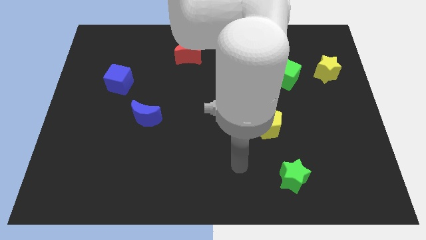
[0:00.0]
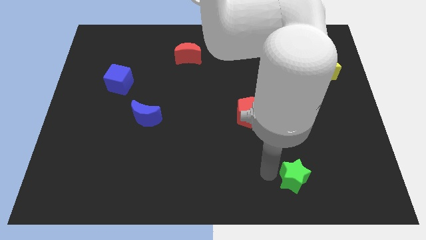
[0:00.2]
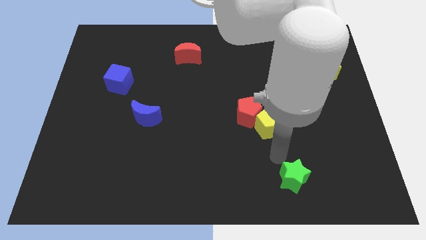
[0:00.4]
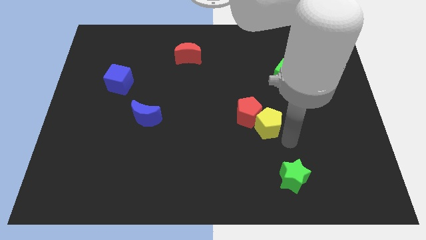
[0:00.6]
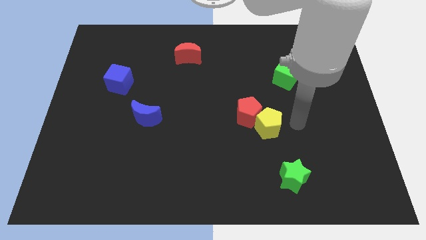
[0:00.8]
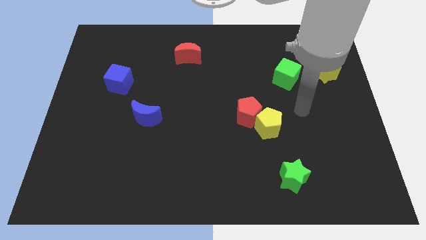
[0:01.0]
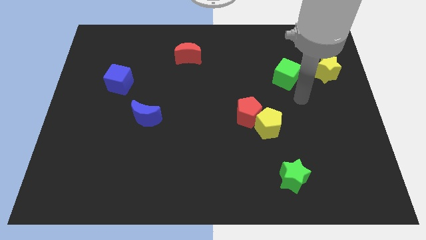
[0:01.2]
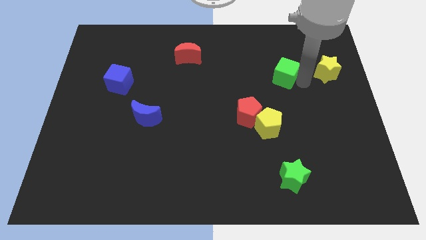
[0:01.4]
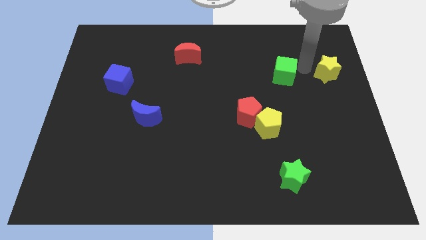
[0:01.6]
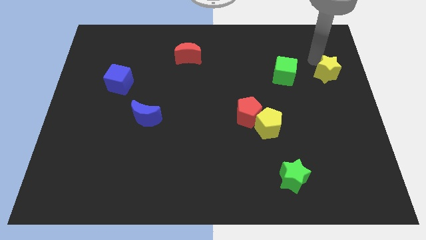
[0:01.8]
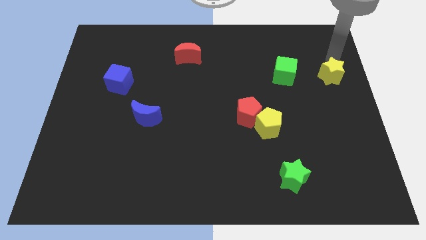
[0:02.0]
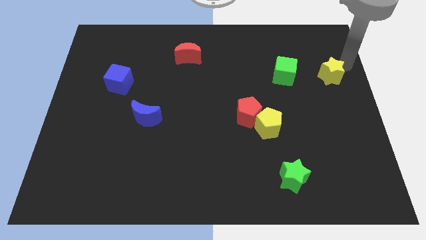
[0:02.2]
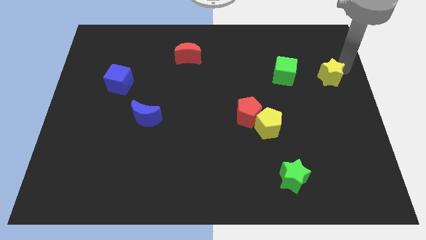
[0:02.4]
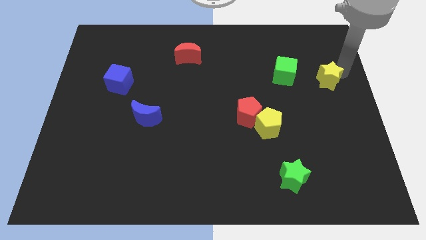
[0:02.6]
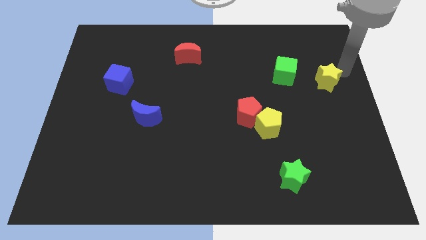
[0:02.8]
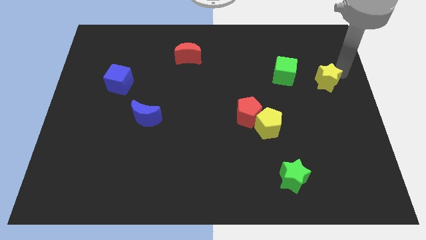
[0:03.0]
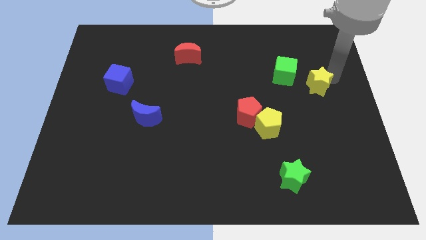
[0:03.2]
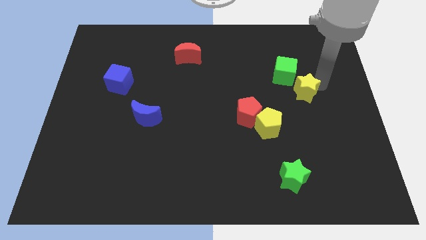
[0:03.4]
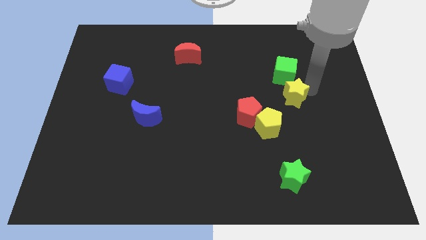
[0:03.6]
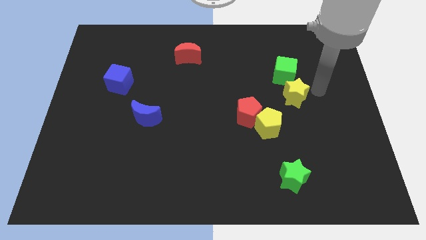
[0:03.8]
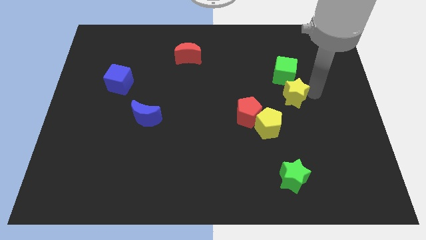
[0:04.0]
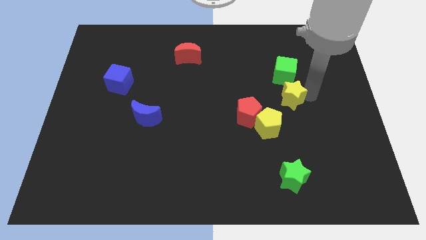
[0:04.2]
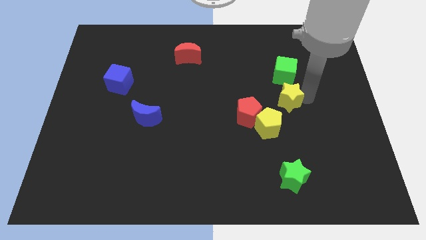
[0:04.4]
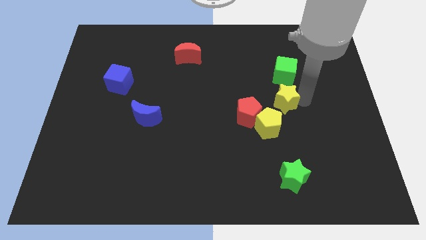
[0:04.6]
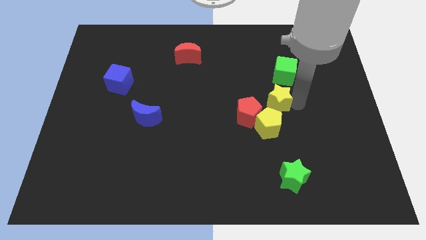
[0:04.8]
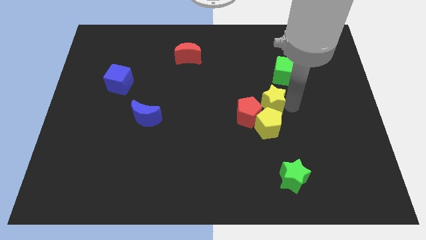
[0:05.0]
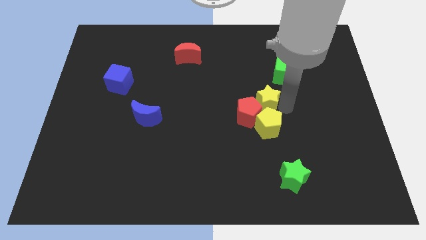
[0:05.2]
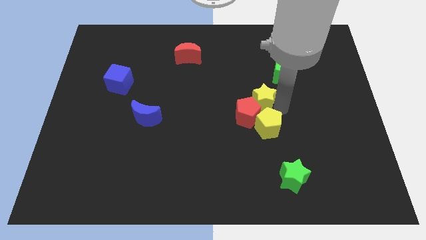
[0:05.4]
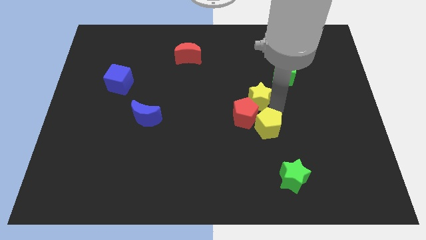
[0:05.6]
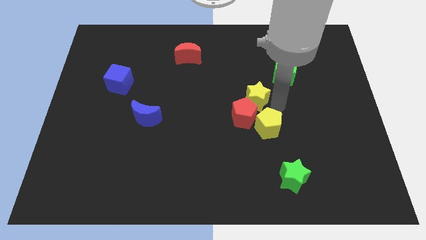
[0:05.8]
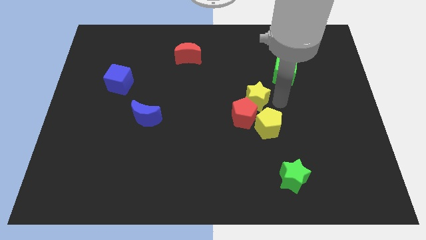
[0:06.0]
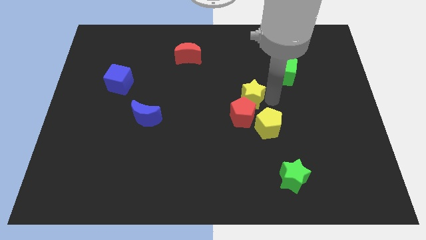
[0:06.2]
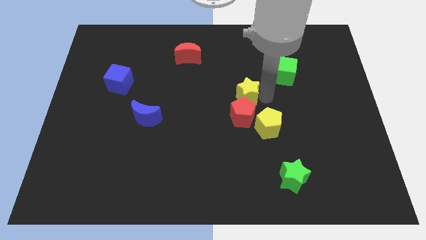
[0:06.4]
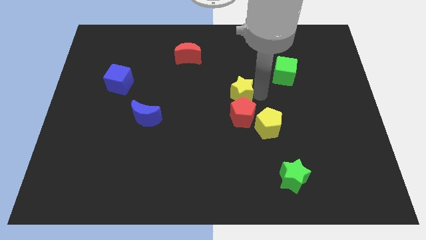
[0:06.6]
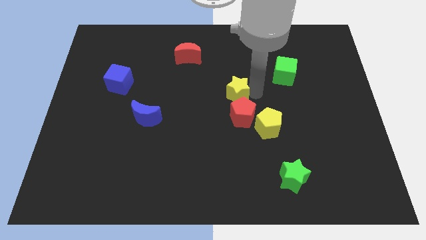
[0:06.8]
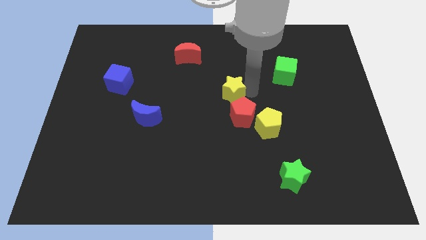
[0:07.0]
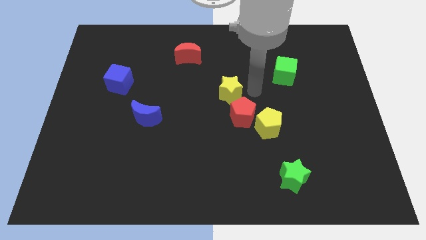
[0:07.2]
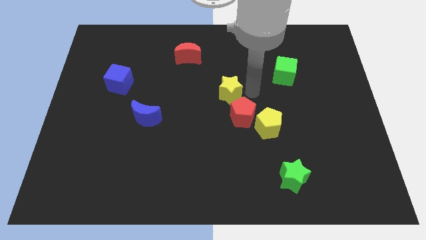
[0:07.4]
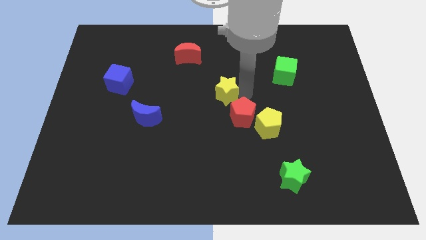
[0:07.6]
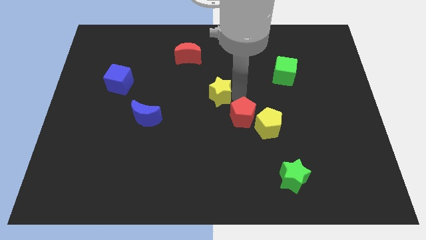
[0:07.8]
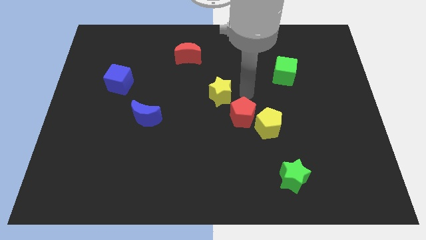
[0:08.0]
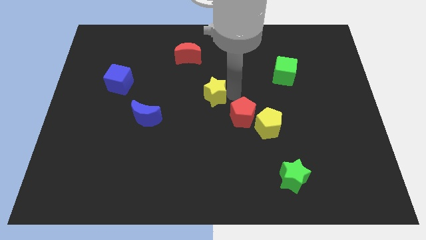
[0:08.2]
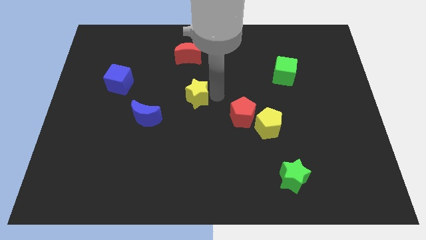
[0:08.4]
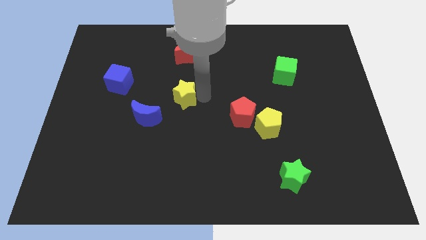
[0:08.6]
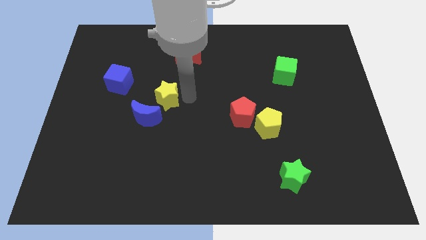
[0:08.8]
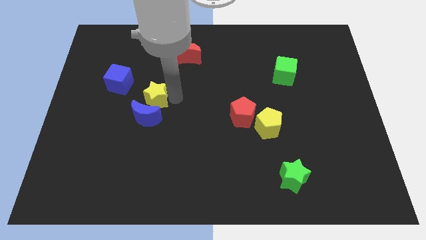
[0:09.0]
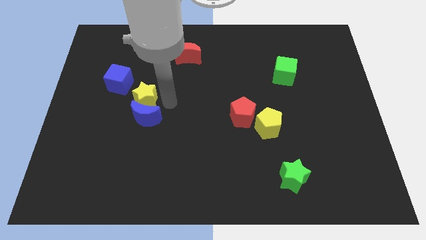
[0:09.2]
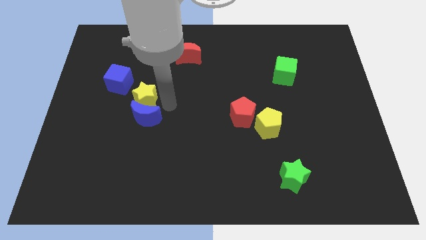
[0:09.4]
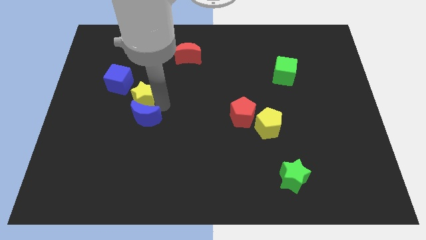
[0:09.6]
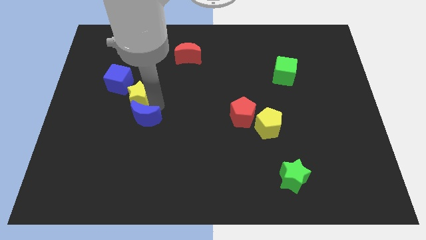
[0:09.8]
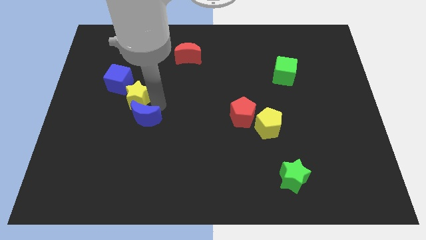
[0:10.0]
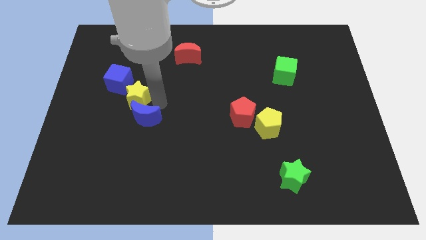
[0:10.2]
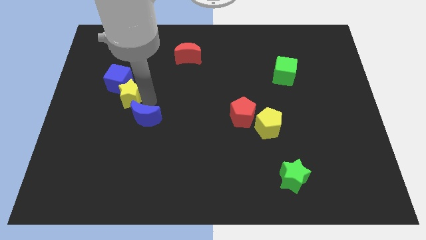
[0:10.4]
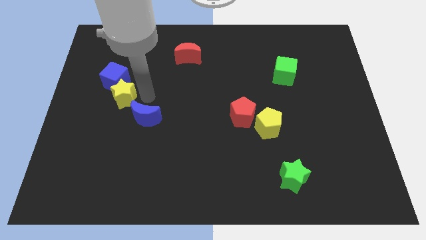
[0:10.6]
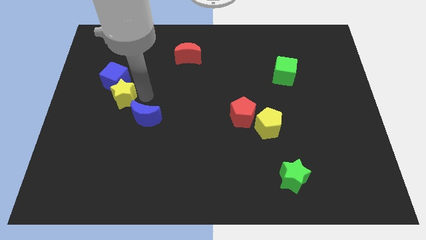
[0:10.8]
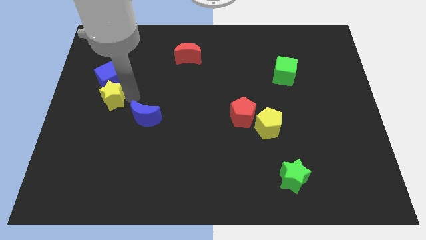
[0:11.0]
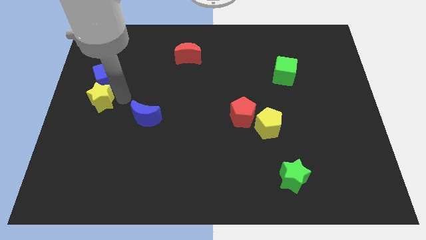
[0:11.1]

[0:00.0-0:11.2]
push the yellow star to the left side of the board

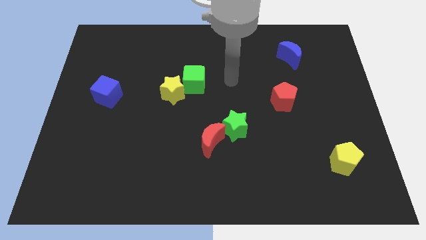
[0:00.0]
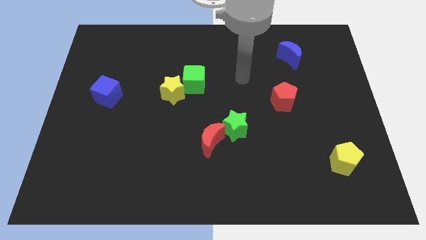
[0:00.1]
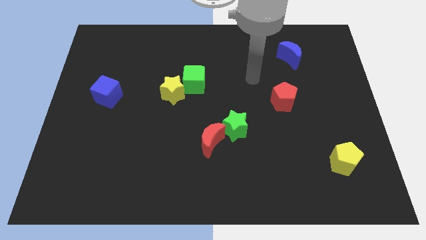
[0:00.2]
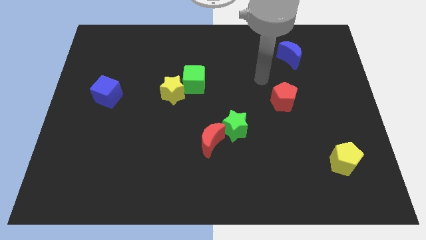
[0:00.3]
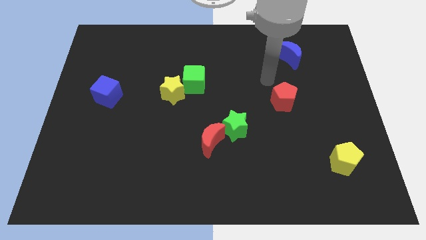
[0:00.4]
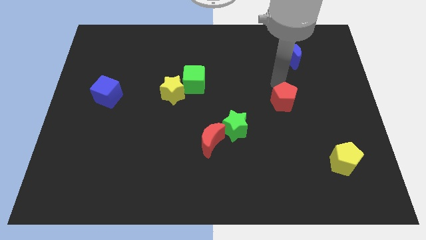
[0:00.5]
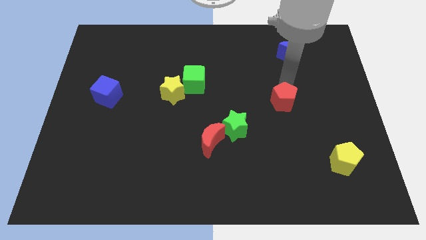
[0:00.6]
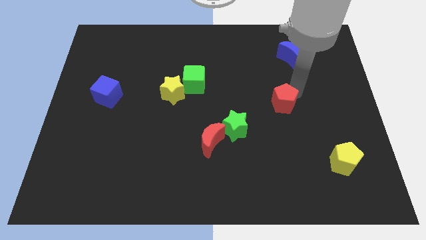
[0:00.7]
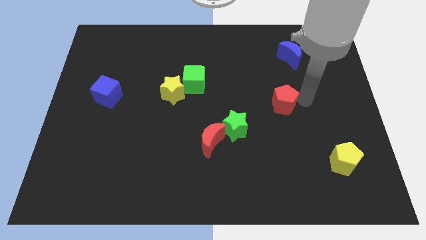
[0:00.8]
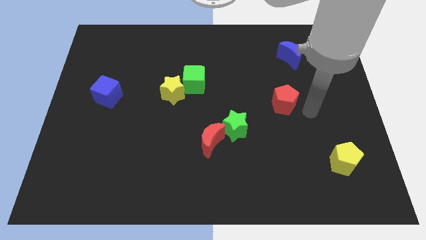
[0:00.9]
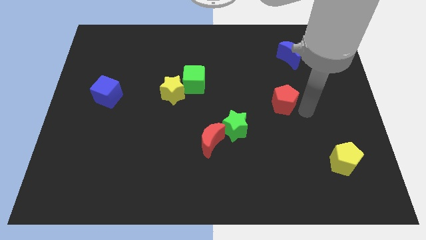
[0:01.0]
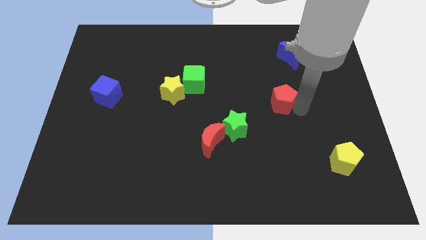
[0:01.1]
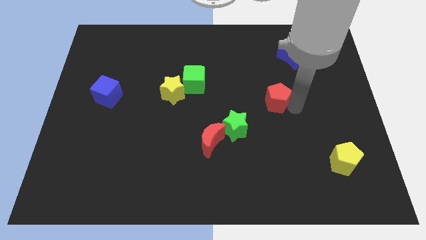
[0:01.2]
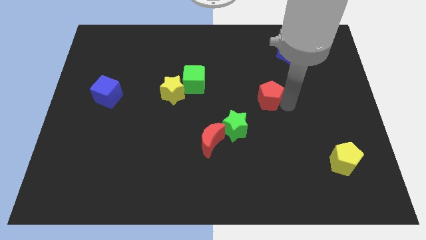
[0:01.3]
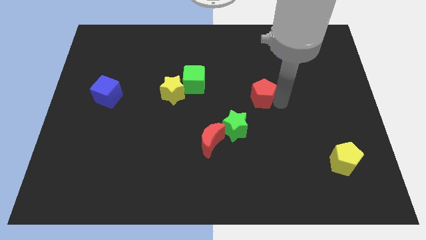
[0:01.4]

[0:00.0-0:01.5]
slide the red pentagon to the center of the board
